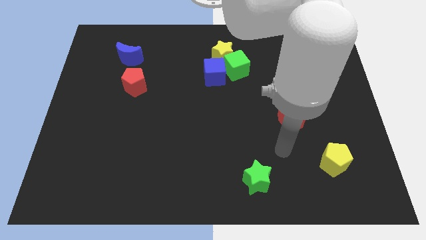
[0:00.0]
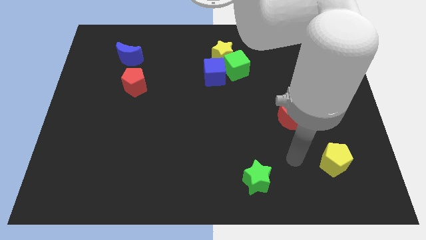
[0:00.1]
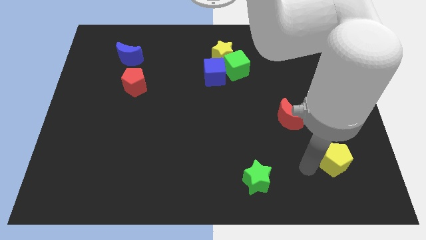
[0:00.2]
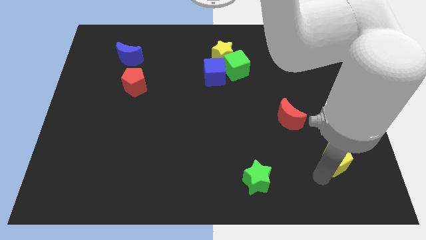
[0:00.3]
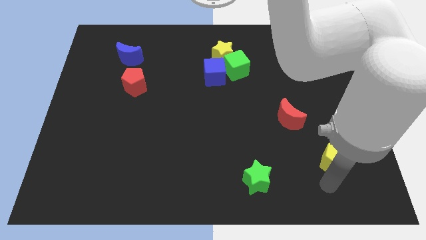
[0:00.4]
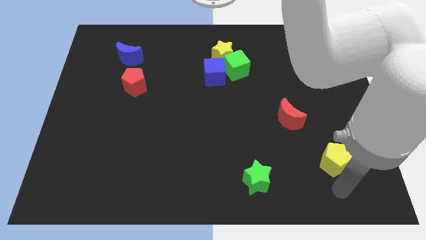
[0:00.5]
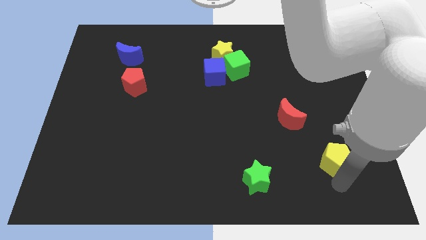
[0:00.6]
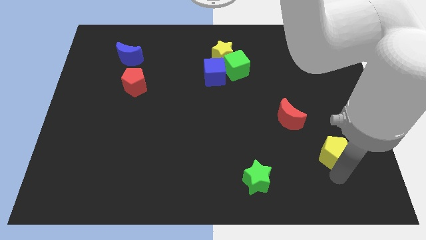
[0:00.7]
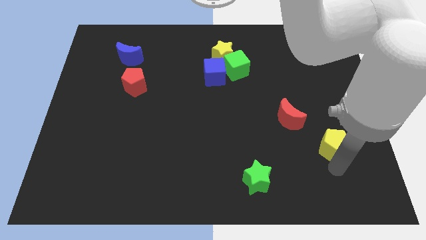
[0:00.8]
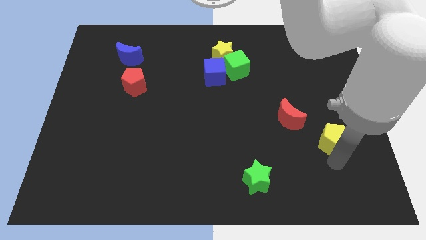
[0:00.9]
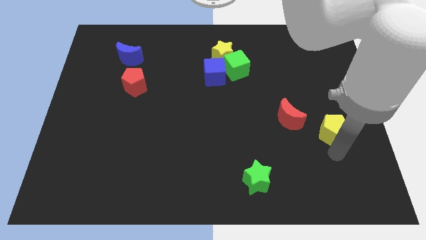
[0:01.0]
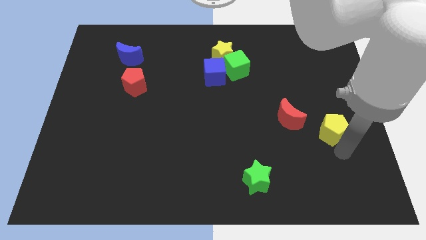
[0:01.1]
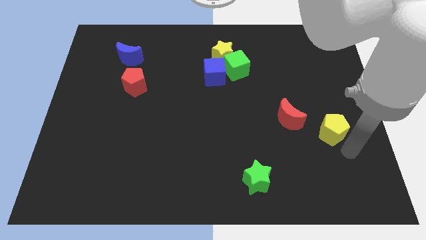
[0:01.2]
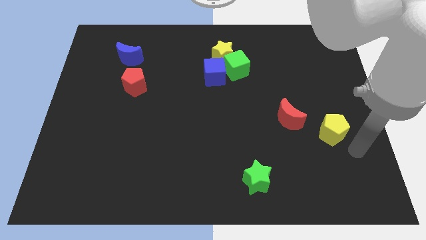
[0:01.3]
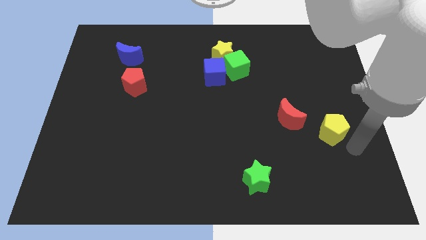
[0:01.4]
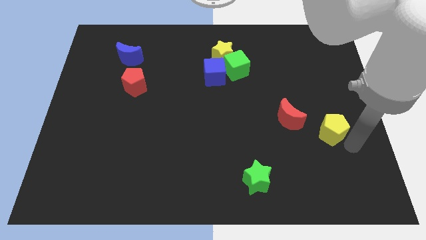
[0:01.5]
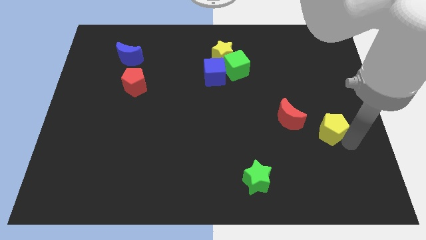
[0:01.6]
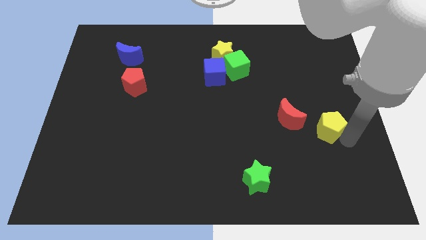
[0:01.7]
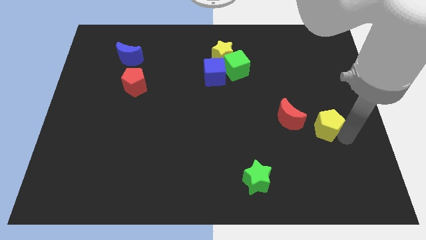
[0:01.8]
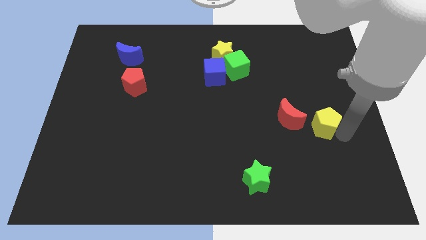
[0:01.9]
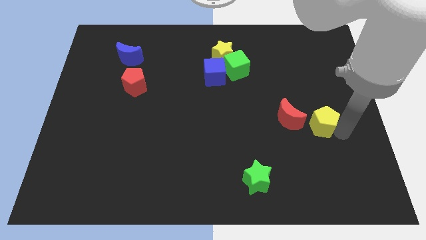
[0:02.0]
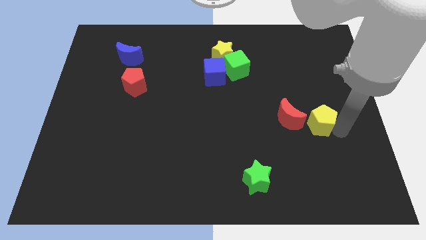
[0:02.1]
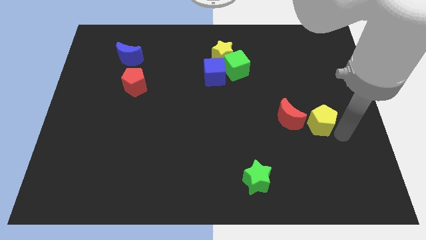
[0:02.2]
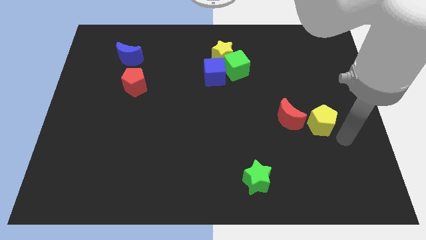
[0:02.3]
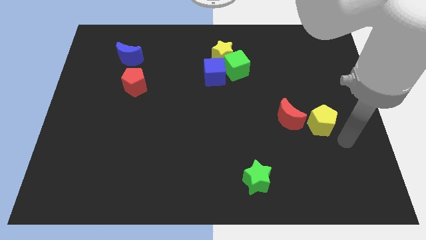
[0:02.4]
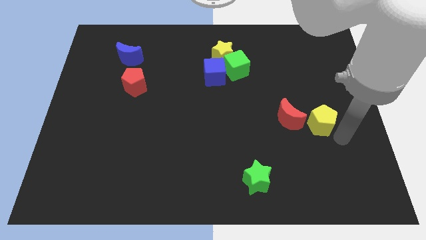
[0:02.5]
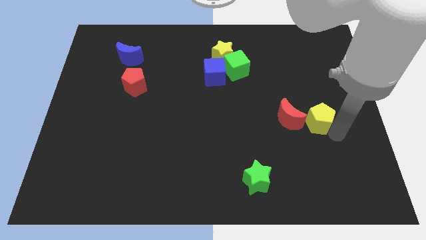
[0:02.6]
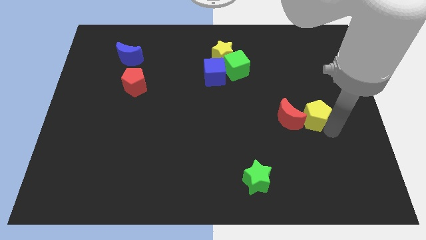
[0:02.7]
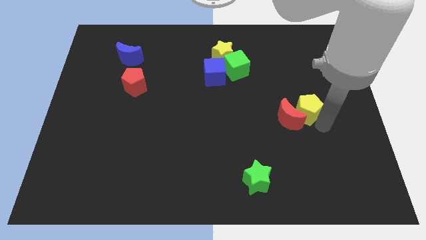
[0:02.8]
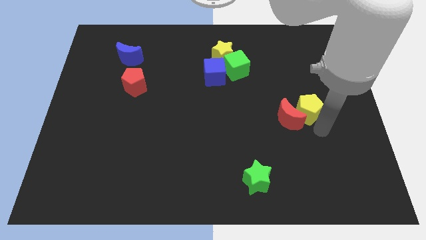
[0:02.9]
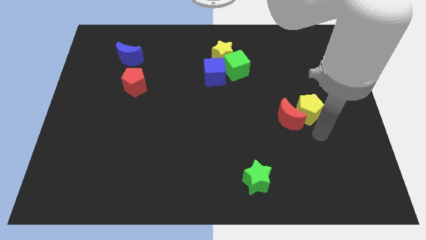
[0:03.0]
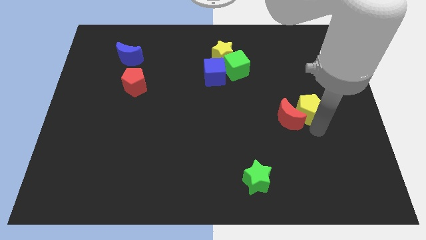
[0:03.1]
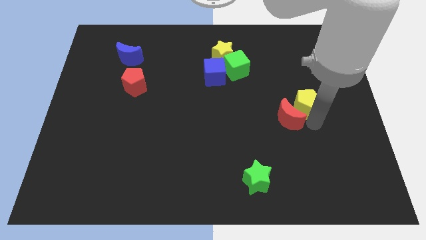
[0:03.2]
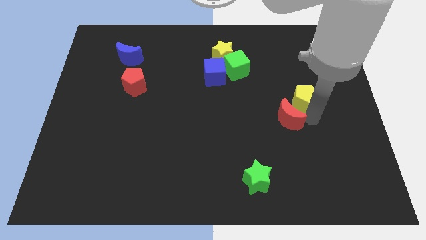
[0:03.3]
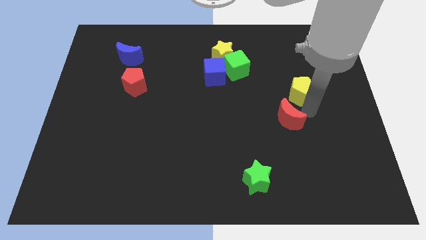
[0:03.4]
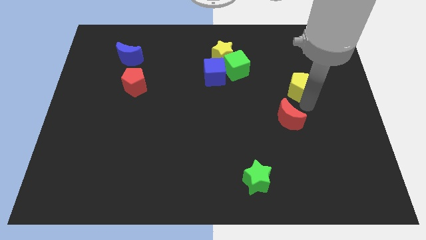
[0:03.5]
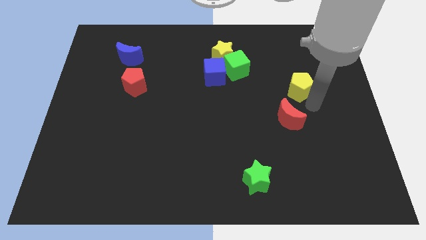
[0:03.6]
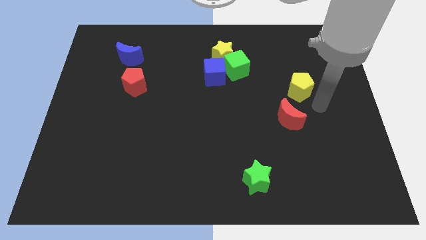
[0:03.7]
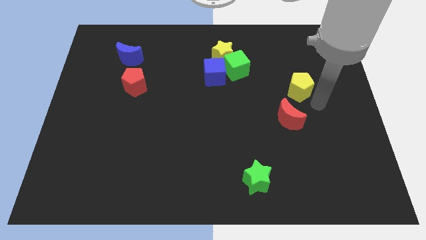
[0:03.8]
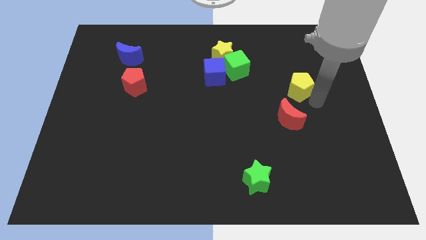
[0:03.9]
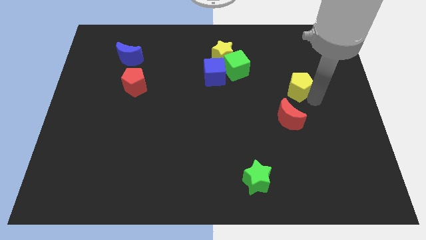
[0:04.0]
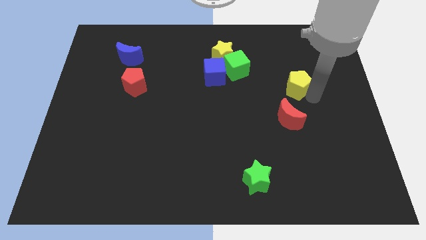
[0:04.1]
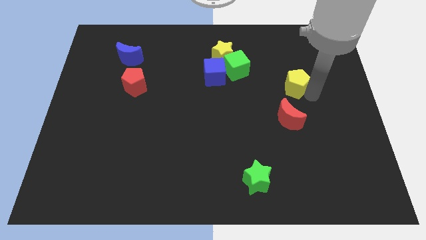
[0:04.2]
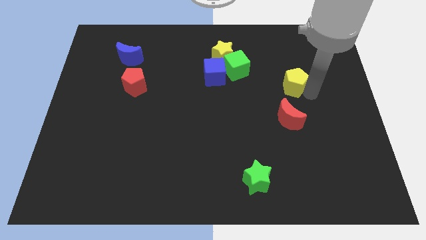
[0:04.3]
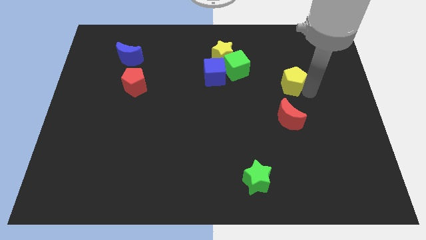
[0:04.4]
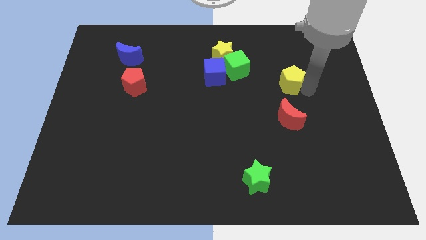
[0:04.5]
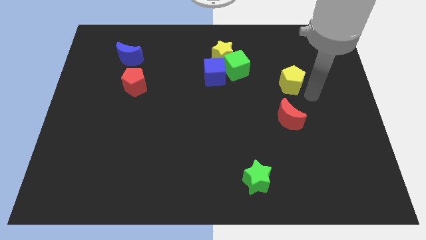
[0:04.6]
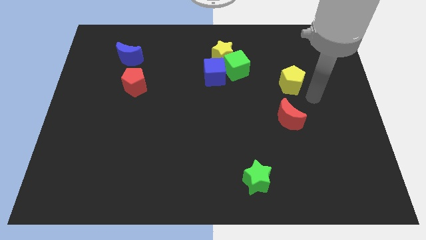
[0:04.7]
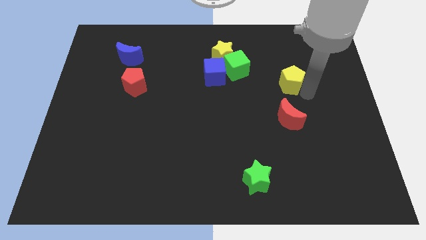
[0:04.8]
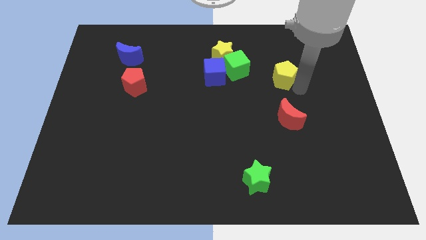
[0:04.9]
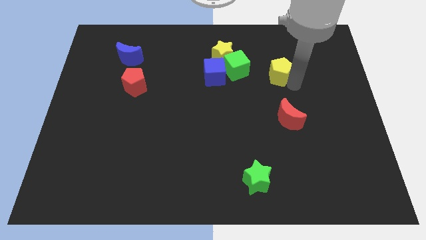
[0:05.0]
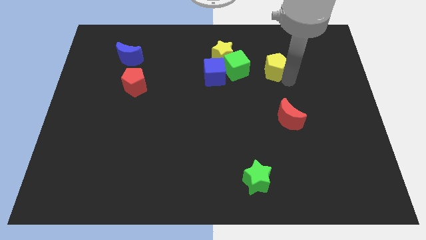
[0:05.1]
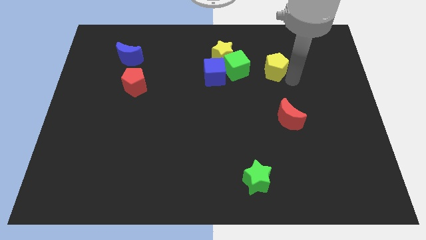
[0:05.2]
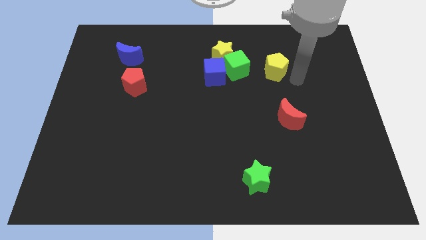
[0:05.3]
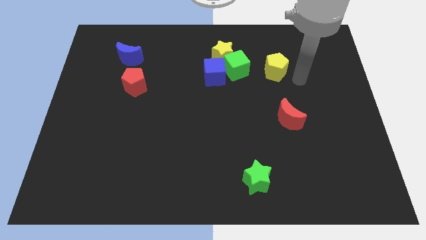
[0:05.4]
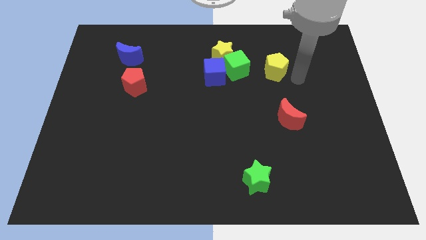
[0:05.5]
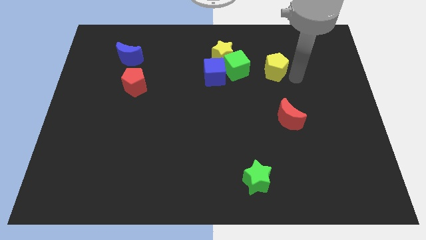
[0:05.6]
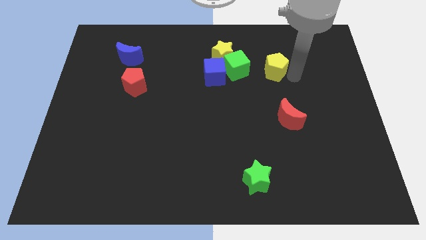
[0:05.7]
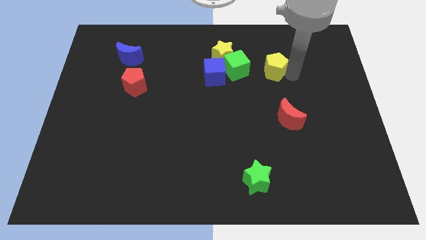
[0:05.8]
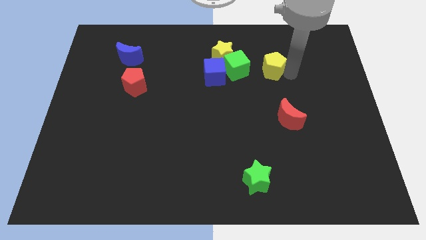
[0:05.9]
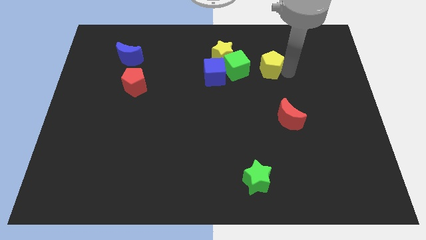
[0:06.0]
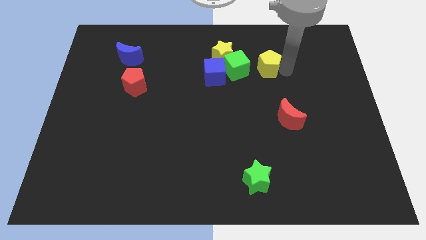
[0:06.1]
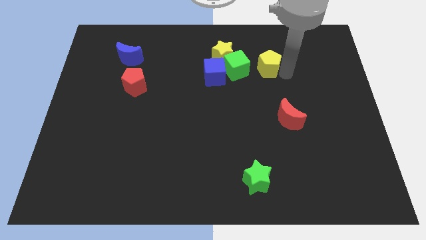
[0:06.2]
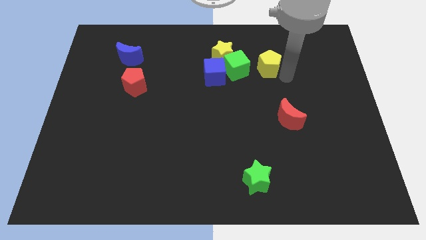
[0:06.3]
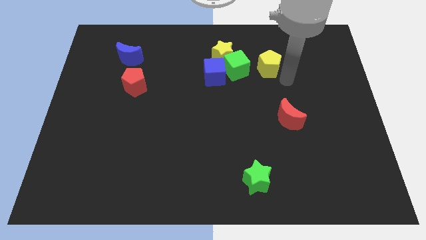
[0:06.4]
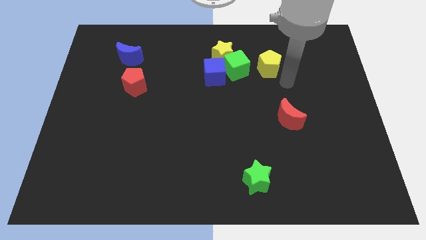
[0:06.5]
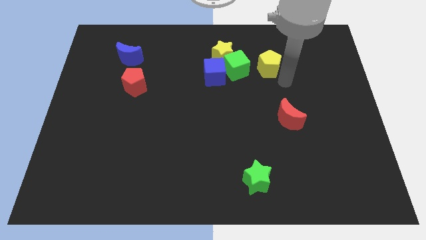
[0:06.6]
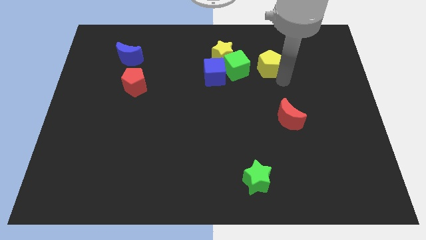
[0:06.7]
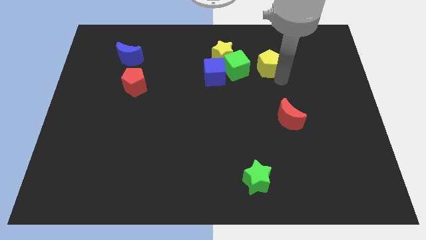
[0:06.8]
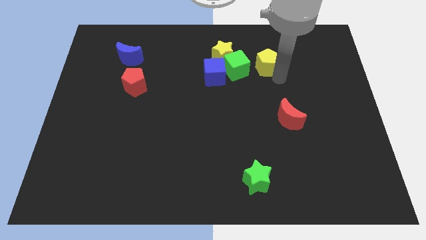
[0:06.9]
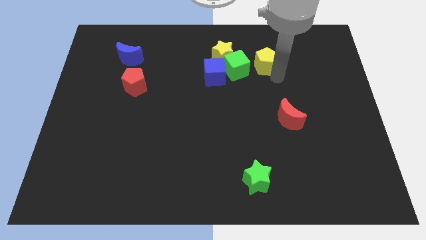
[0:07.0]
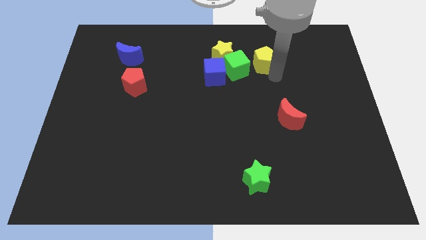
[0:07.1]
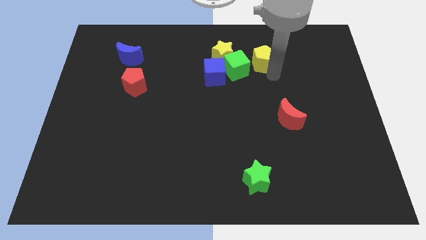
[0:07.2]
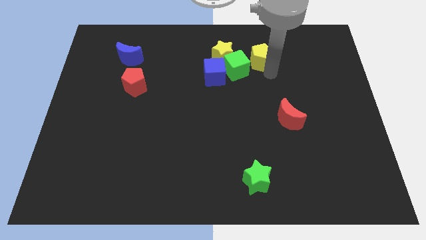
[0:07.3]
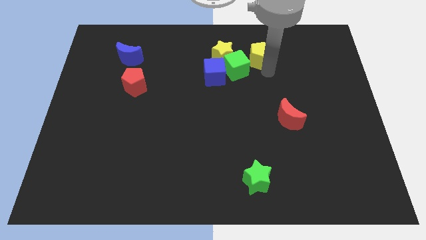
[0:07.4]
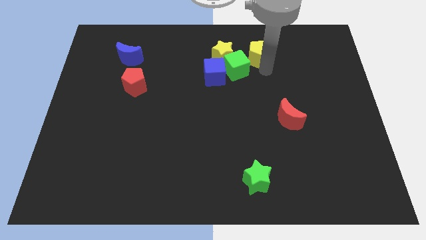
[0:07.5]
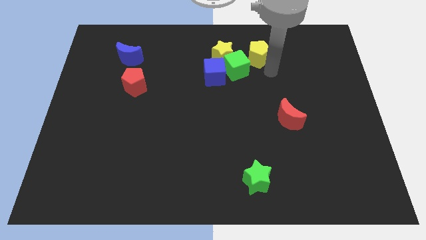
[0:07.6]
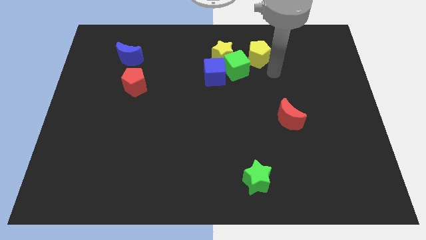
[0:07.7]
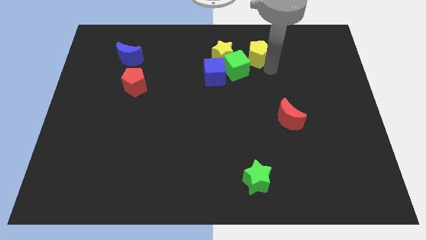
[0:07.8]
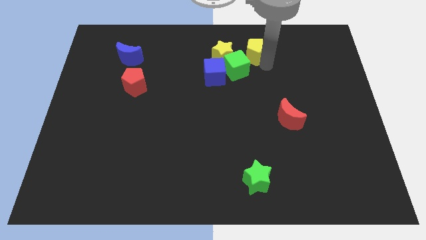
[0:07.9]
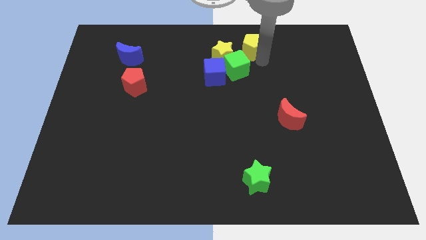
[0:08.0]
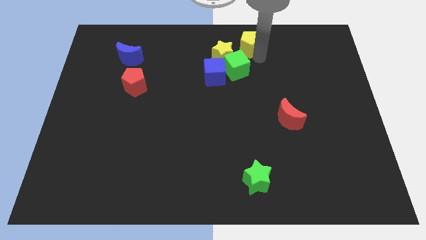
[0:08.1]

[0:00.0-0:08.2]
put the yellow pentagon to the top side
